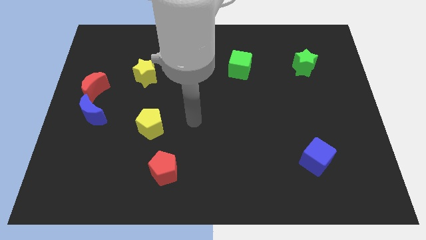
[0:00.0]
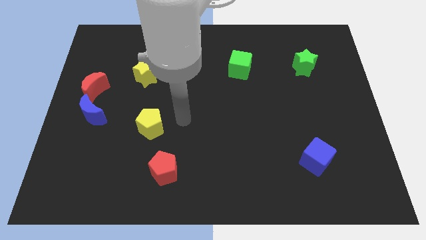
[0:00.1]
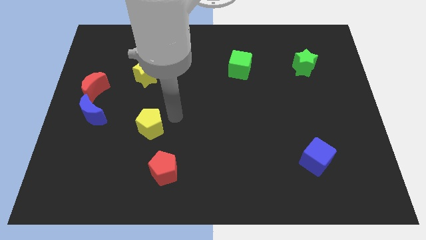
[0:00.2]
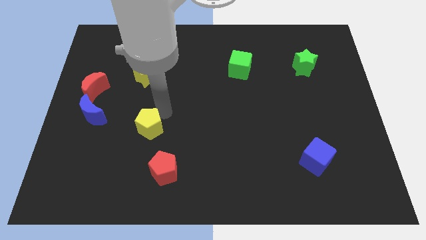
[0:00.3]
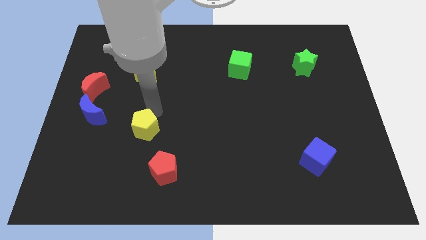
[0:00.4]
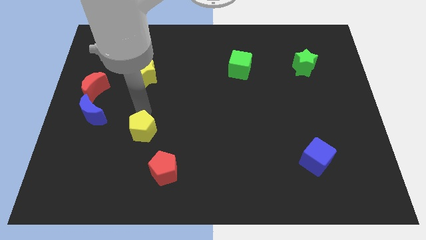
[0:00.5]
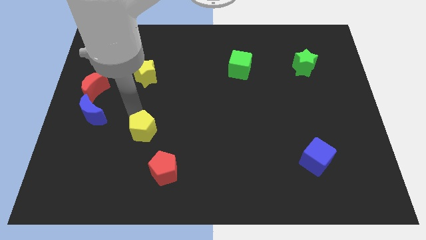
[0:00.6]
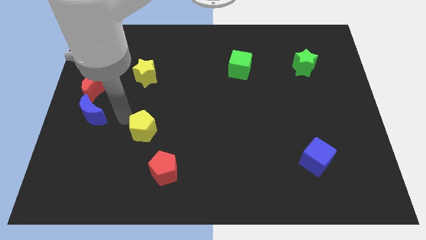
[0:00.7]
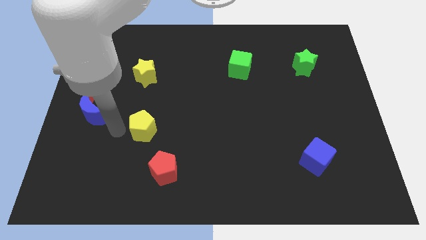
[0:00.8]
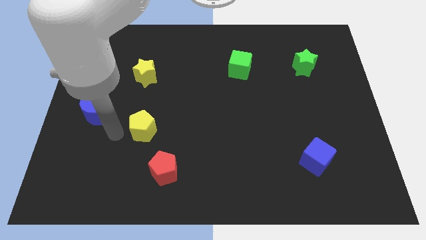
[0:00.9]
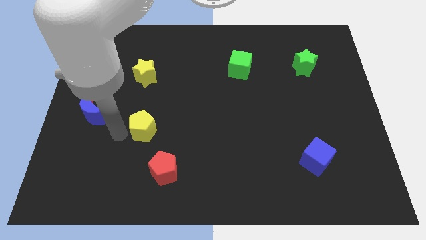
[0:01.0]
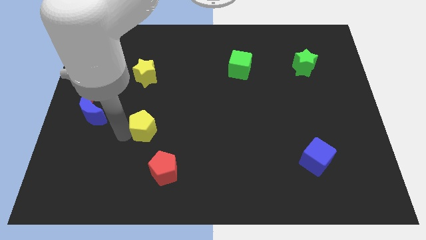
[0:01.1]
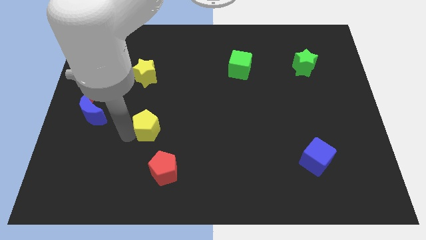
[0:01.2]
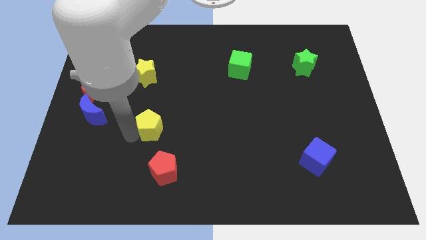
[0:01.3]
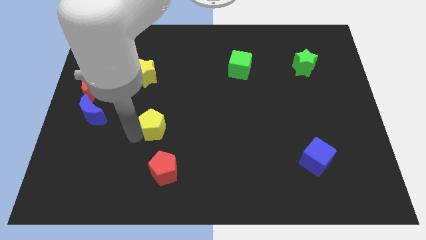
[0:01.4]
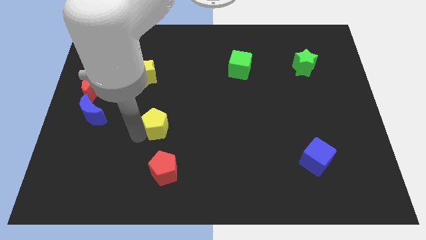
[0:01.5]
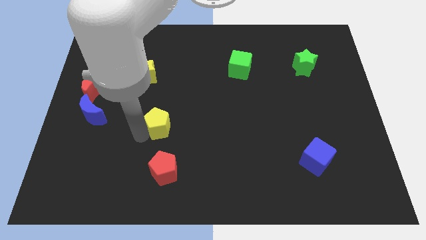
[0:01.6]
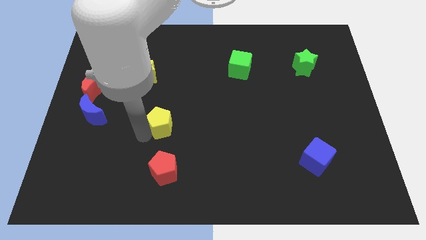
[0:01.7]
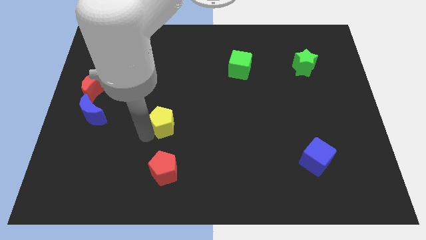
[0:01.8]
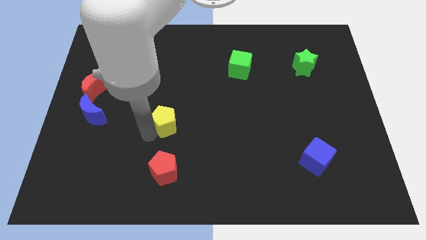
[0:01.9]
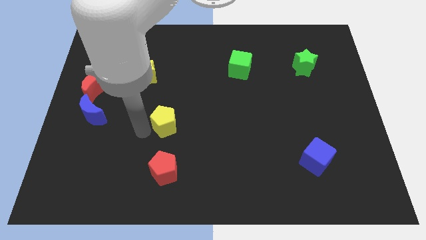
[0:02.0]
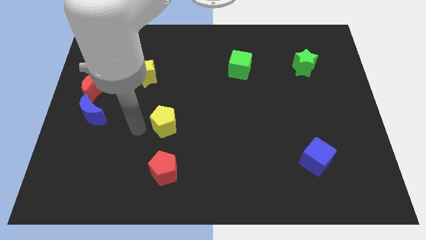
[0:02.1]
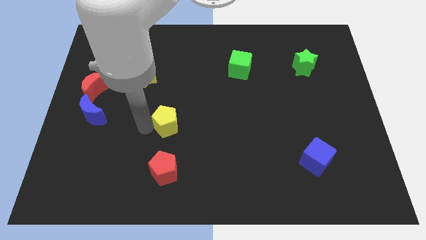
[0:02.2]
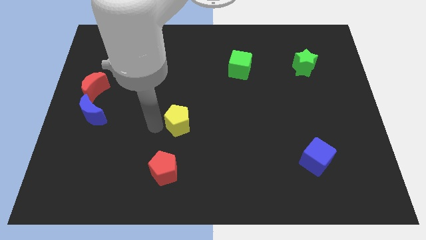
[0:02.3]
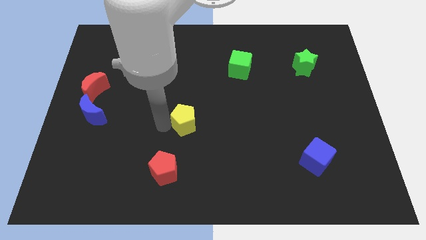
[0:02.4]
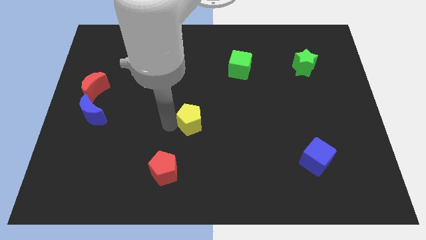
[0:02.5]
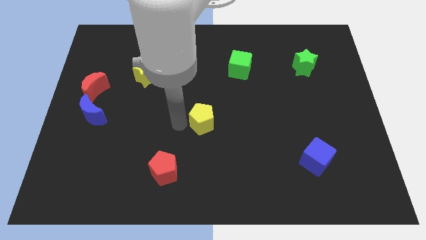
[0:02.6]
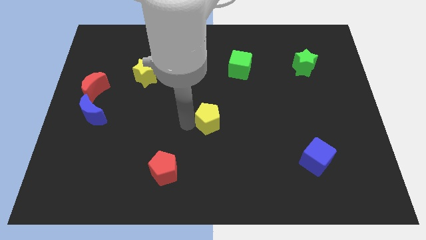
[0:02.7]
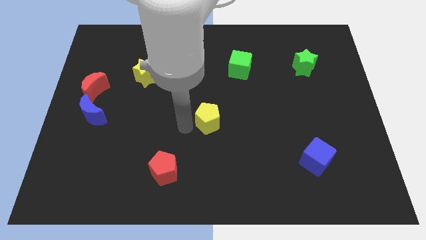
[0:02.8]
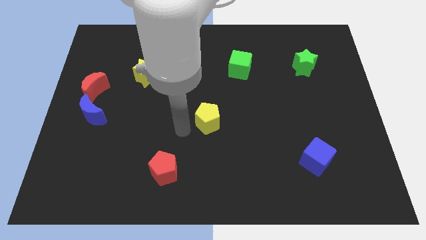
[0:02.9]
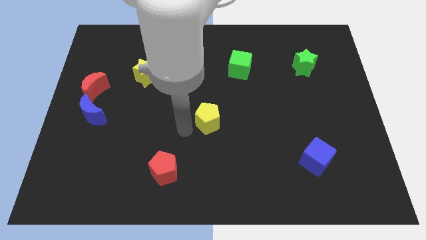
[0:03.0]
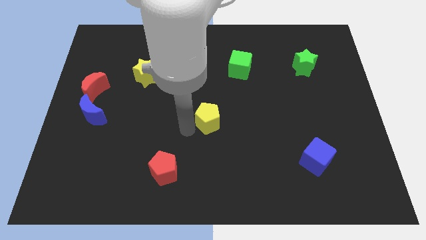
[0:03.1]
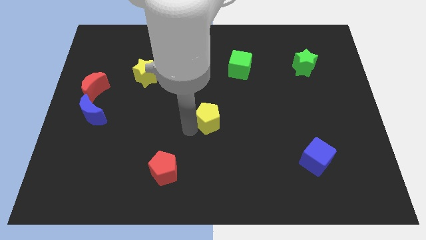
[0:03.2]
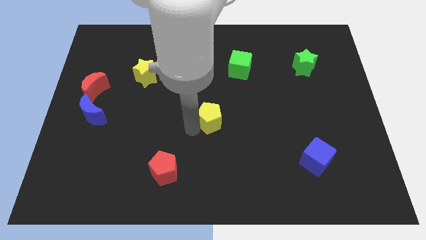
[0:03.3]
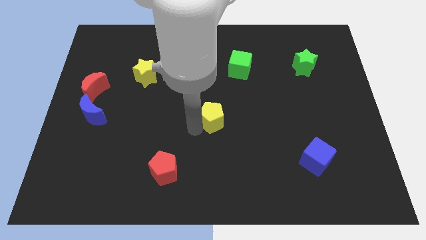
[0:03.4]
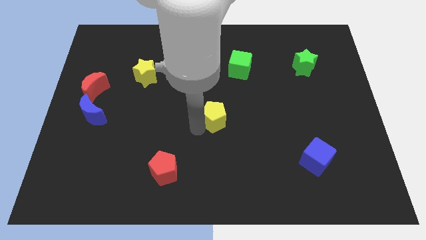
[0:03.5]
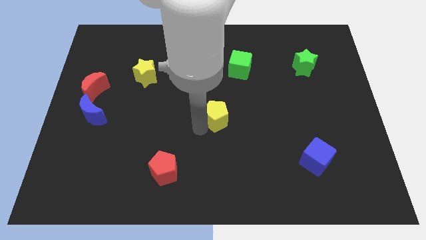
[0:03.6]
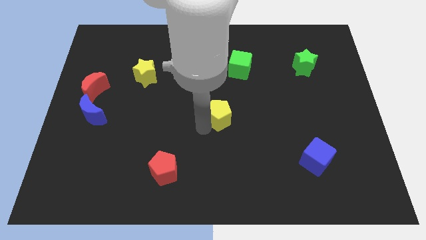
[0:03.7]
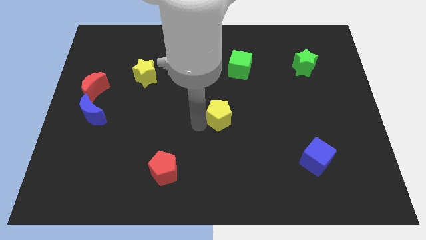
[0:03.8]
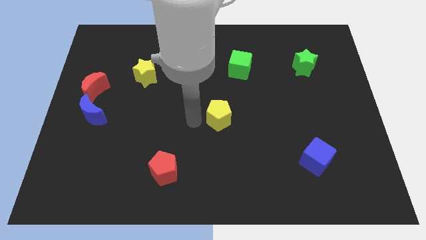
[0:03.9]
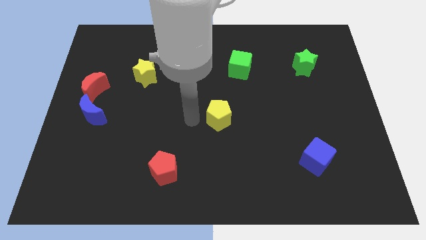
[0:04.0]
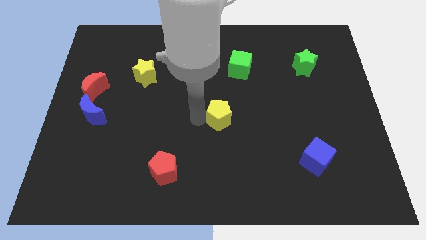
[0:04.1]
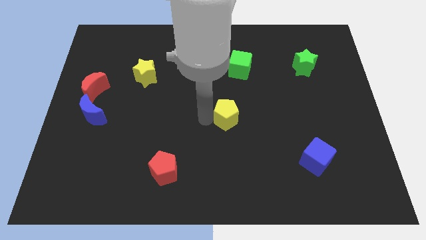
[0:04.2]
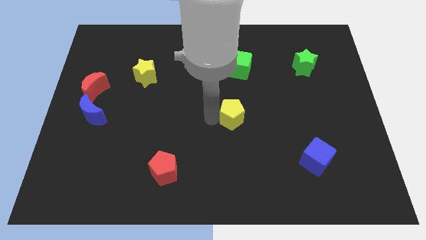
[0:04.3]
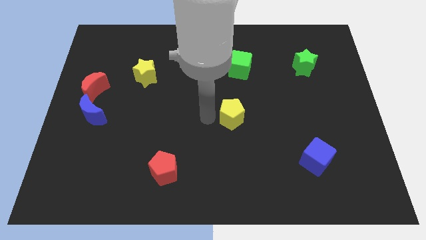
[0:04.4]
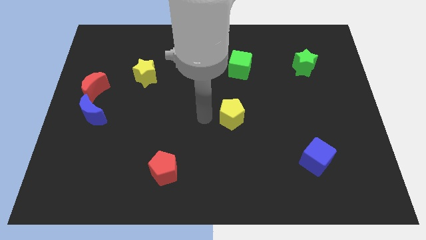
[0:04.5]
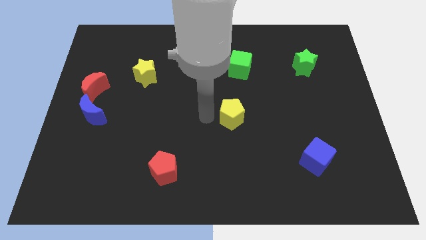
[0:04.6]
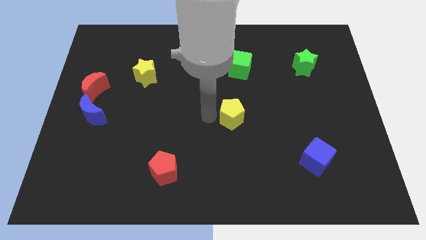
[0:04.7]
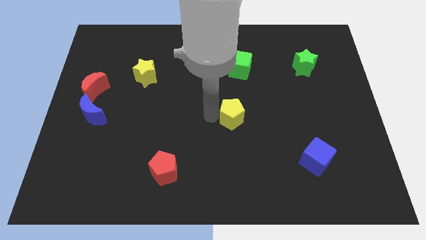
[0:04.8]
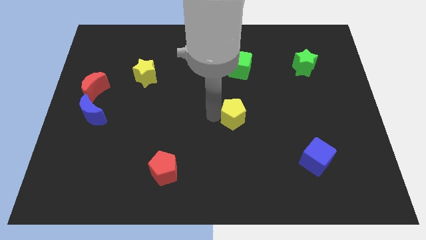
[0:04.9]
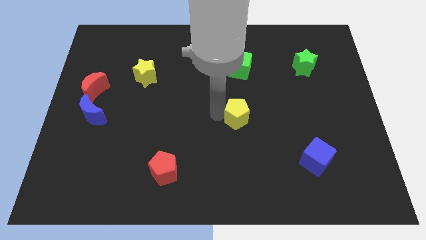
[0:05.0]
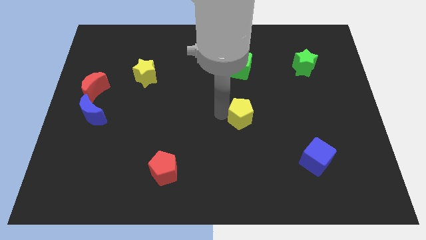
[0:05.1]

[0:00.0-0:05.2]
slide the yellow pentagon right

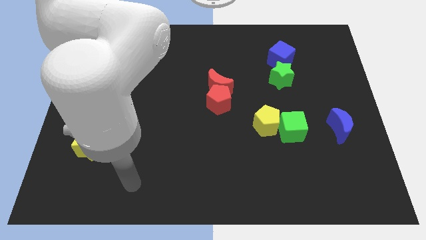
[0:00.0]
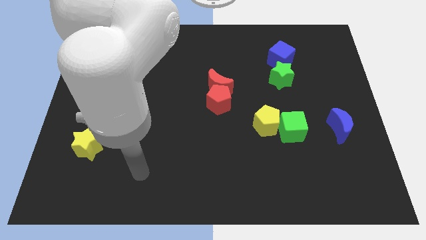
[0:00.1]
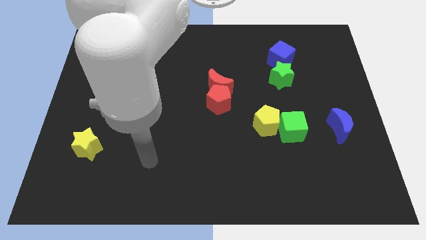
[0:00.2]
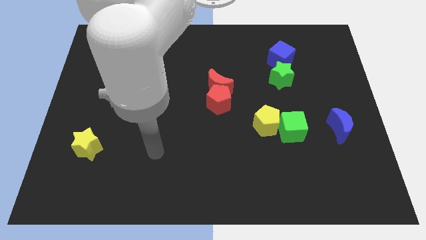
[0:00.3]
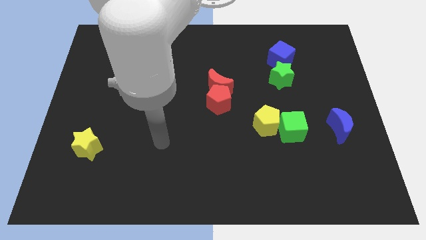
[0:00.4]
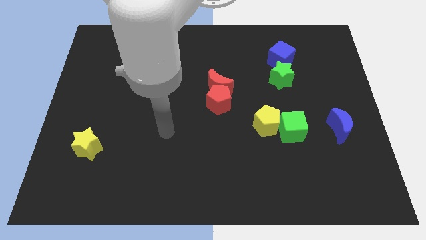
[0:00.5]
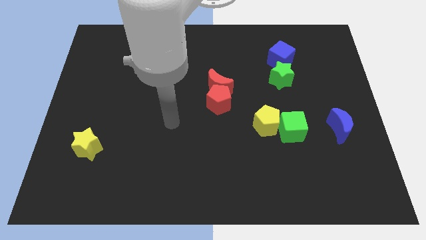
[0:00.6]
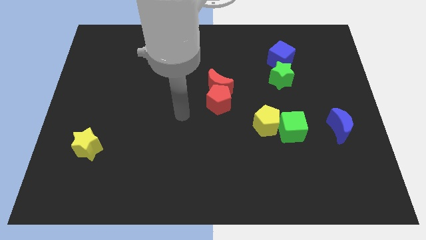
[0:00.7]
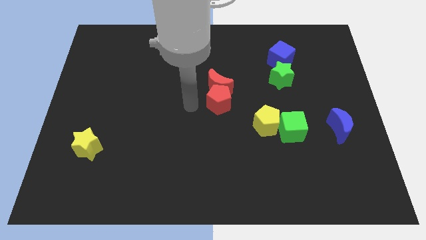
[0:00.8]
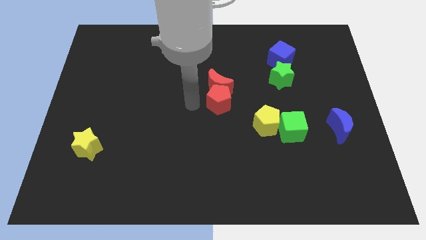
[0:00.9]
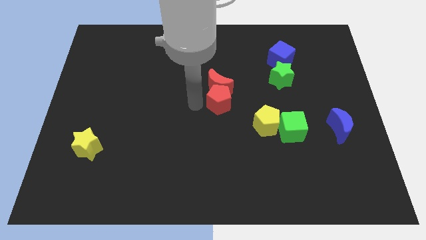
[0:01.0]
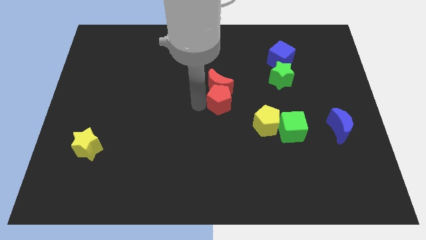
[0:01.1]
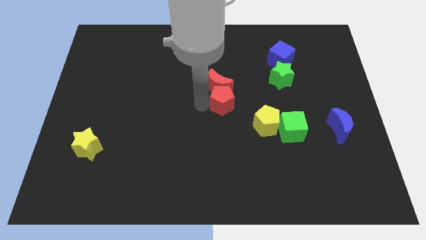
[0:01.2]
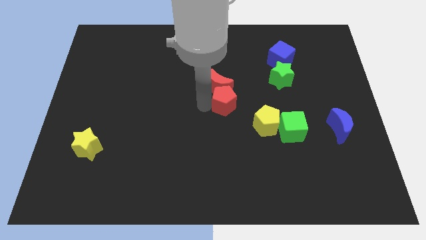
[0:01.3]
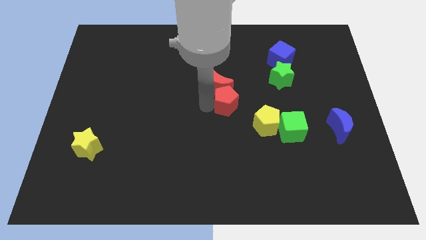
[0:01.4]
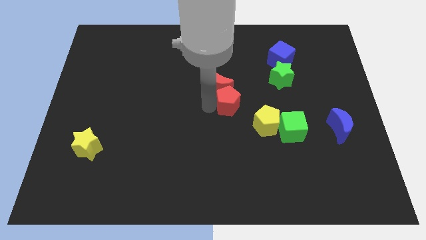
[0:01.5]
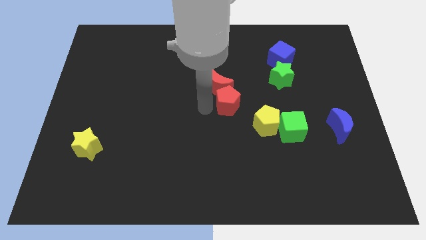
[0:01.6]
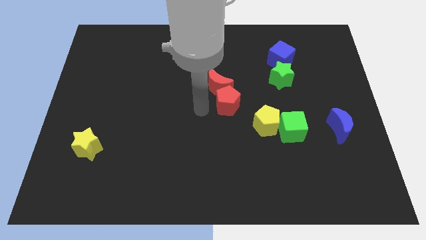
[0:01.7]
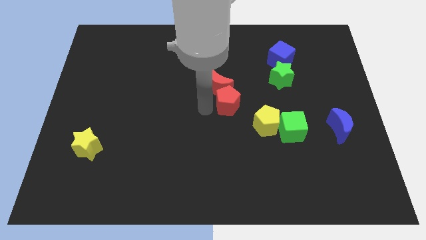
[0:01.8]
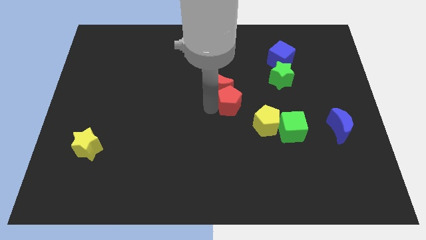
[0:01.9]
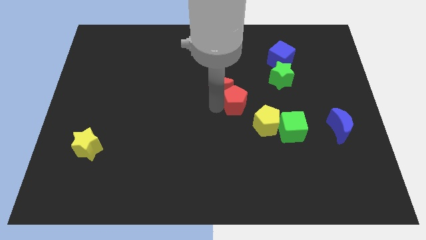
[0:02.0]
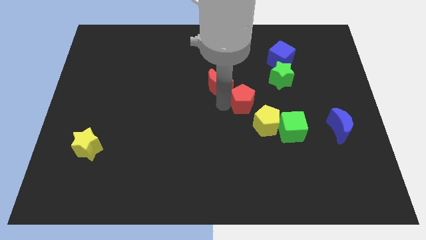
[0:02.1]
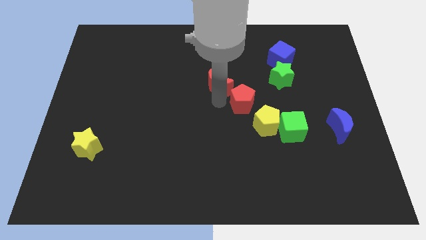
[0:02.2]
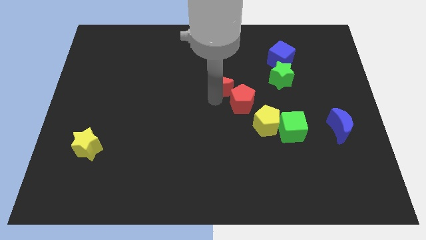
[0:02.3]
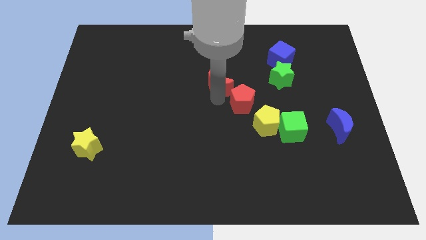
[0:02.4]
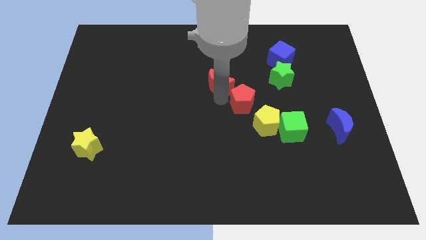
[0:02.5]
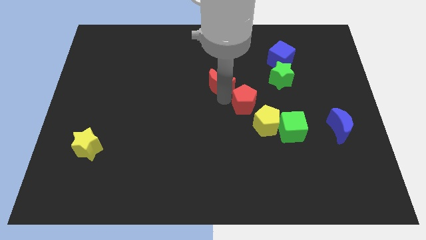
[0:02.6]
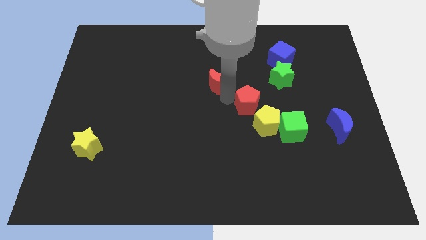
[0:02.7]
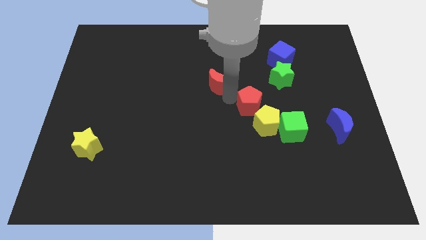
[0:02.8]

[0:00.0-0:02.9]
slide the red pentagon to the right somewhat
